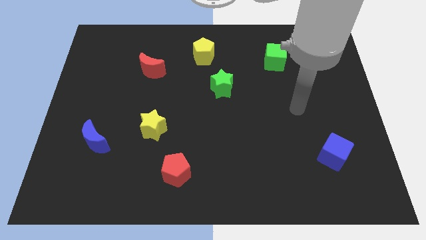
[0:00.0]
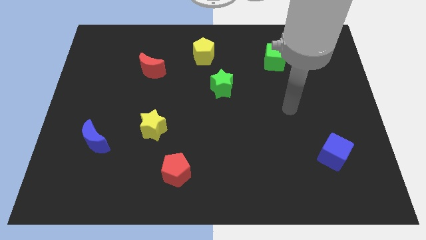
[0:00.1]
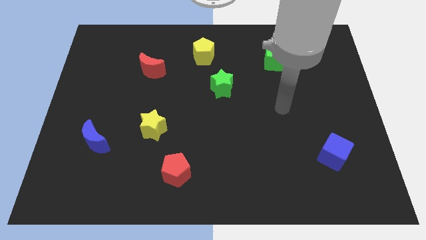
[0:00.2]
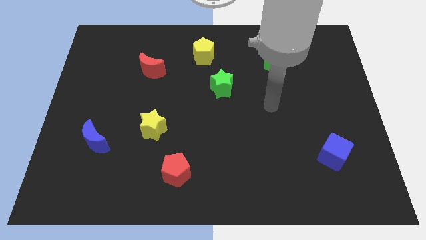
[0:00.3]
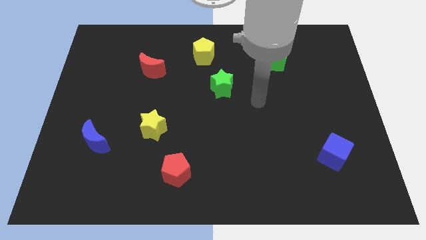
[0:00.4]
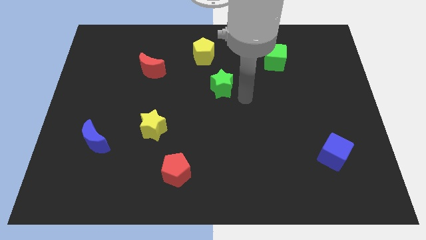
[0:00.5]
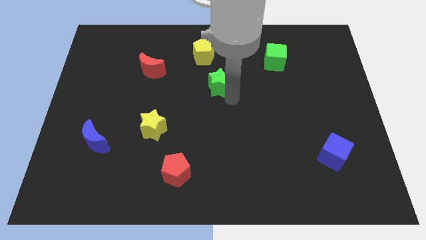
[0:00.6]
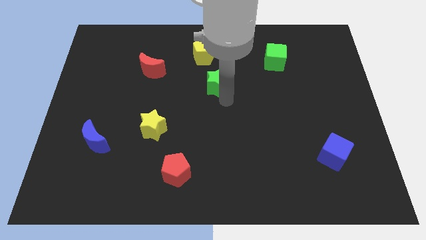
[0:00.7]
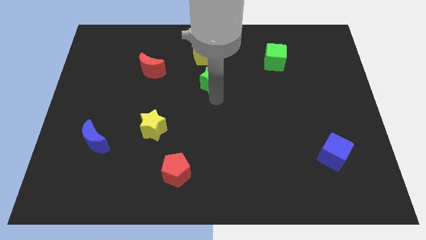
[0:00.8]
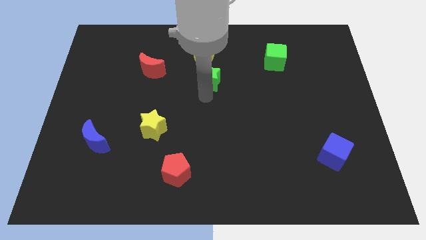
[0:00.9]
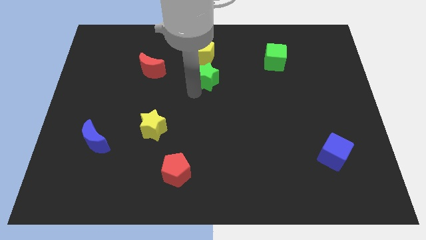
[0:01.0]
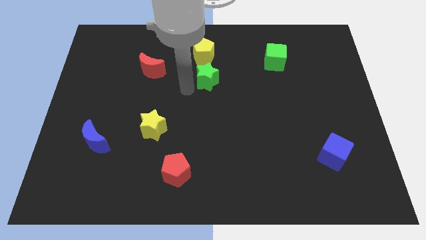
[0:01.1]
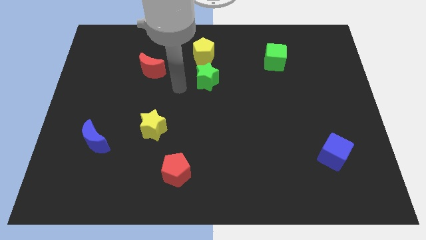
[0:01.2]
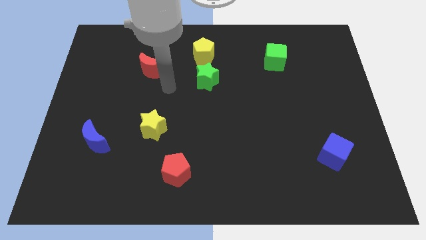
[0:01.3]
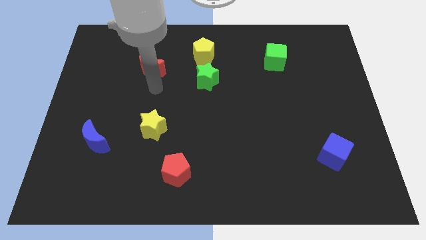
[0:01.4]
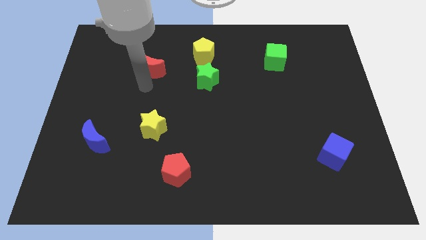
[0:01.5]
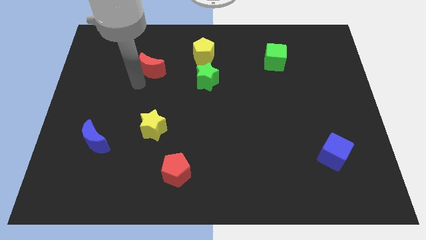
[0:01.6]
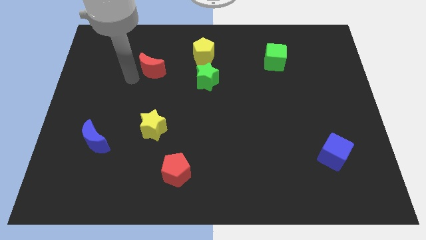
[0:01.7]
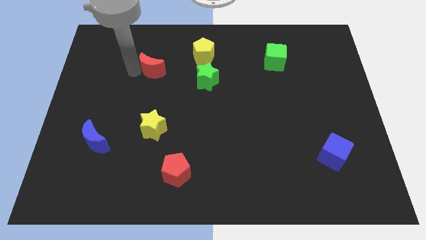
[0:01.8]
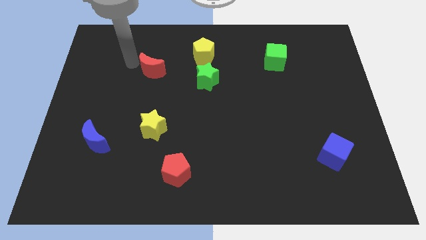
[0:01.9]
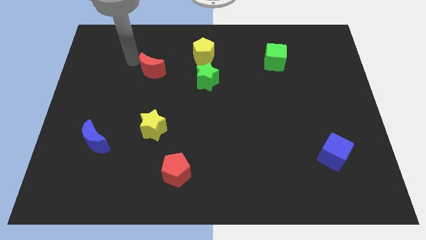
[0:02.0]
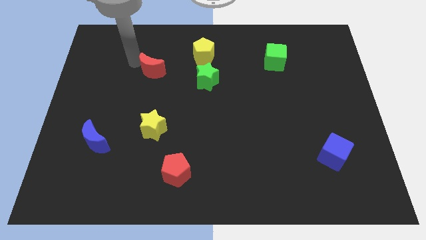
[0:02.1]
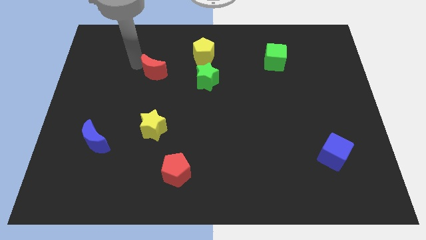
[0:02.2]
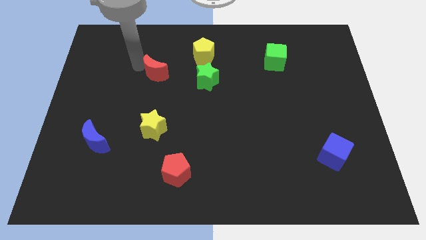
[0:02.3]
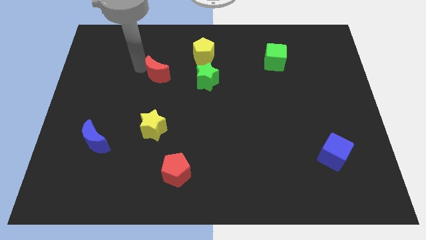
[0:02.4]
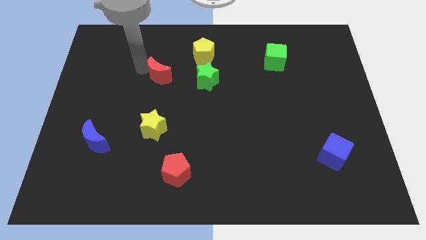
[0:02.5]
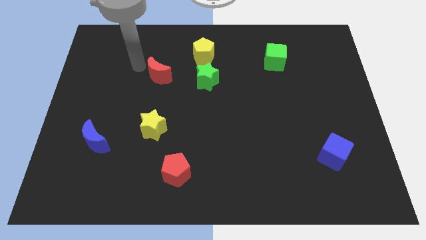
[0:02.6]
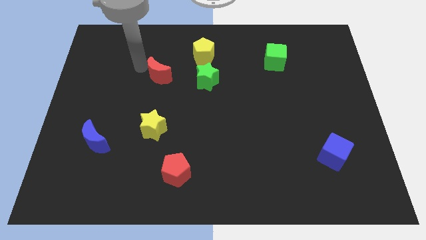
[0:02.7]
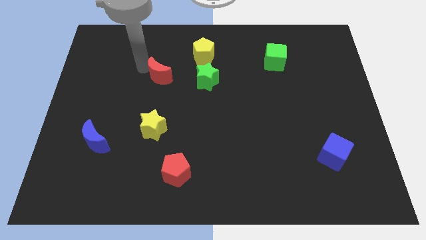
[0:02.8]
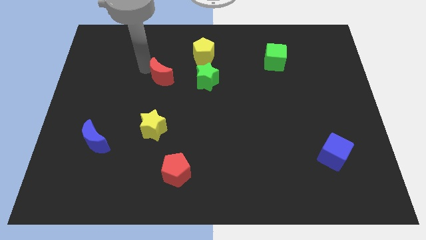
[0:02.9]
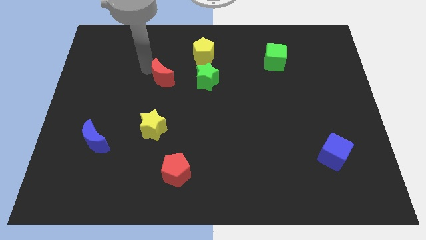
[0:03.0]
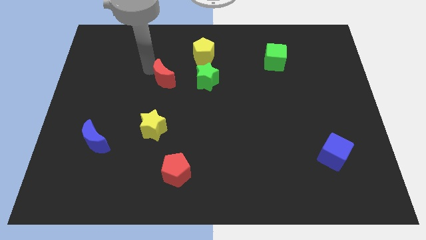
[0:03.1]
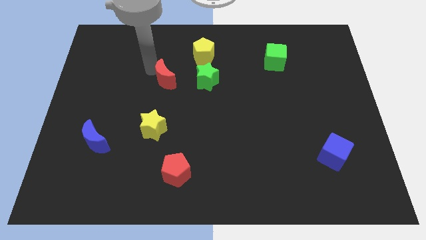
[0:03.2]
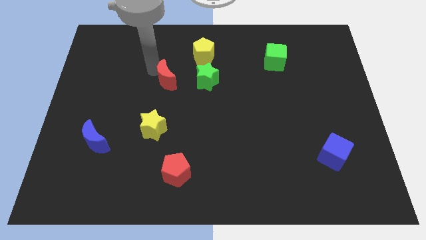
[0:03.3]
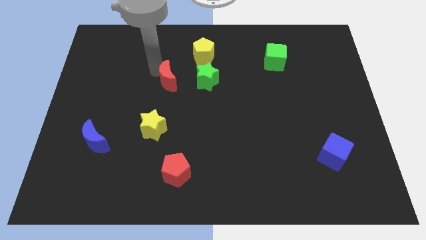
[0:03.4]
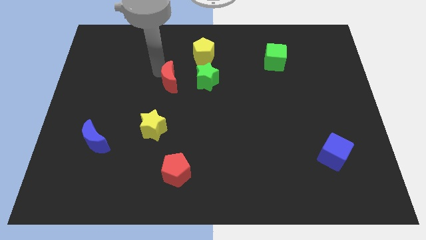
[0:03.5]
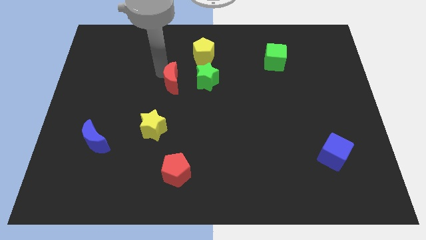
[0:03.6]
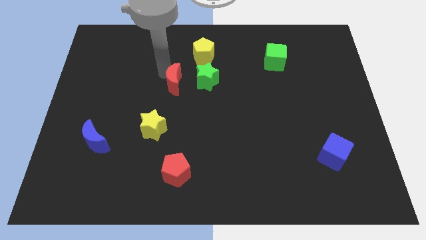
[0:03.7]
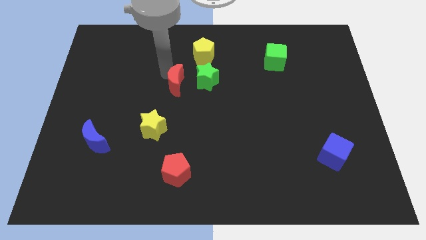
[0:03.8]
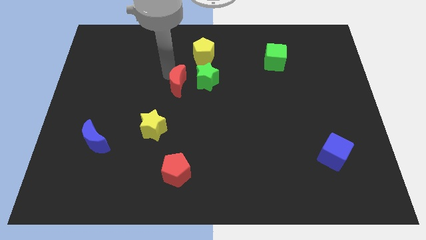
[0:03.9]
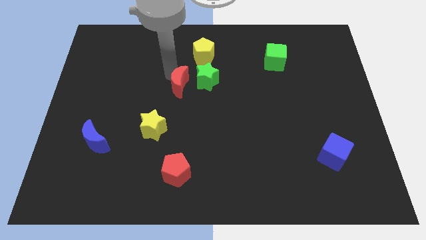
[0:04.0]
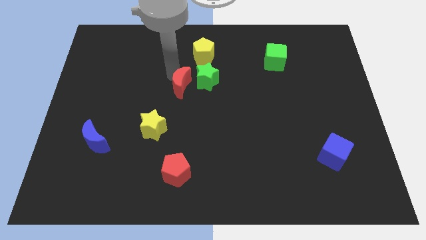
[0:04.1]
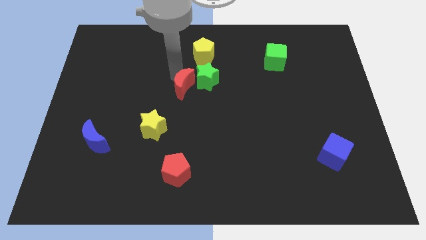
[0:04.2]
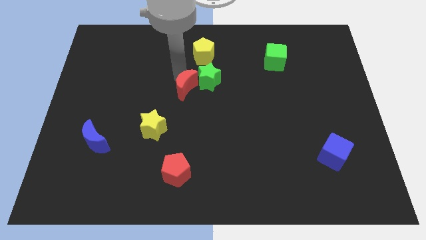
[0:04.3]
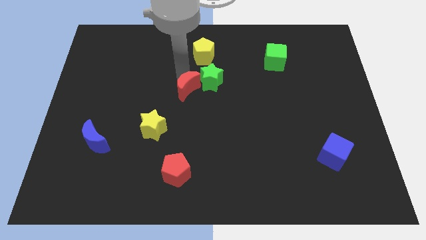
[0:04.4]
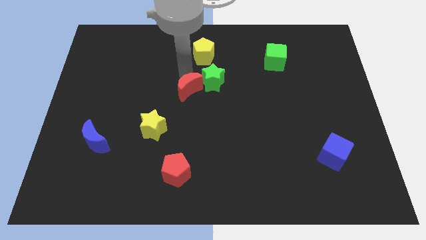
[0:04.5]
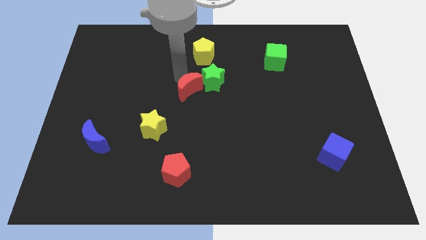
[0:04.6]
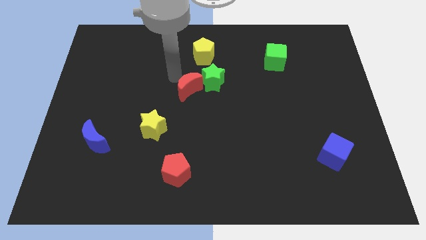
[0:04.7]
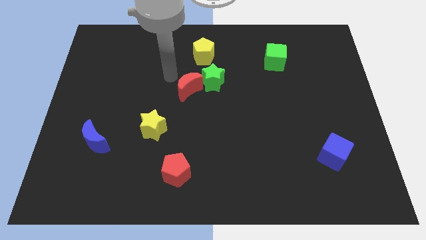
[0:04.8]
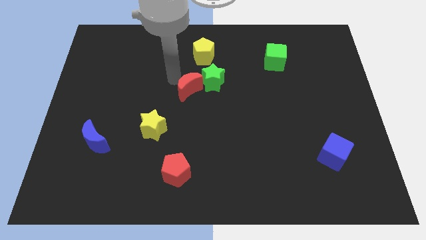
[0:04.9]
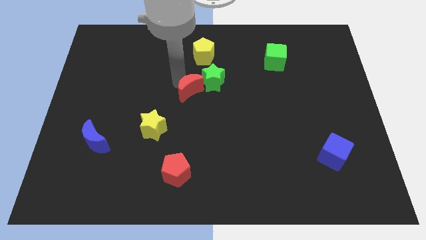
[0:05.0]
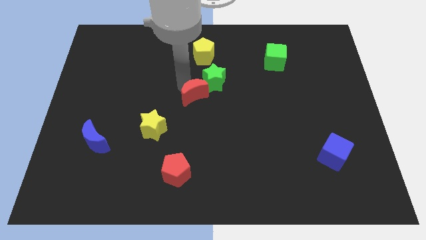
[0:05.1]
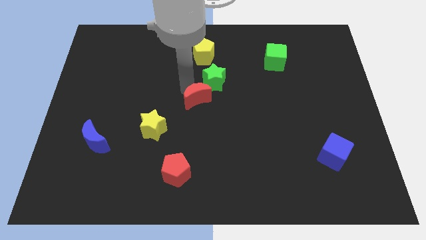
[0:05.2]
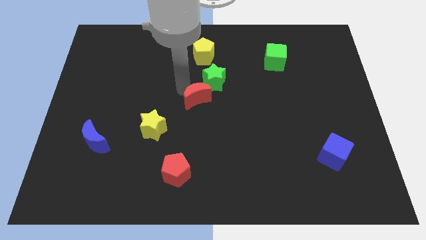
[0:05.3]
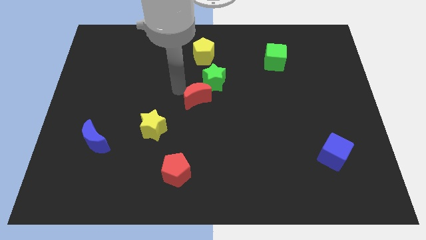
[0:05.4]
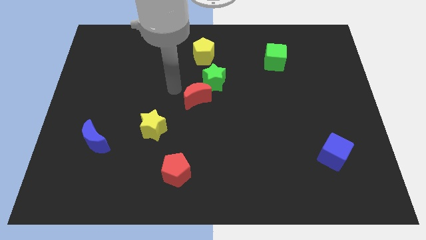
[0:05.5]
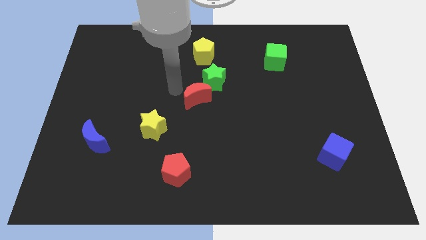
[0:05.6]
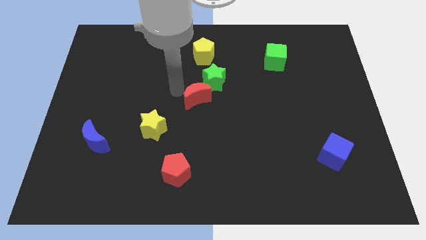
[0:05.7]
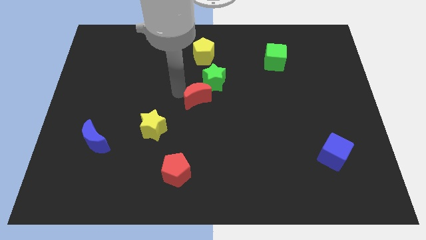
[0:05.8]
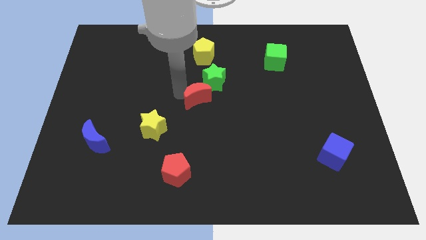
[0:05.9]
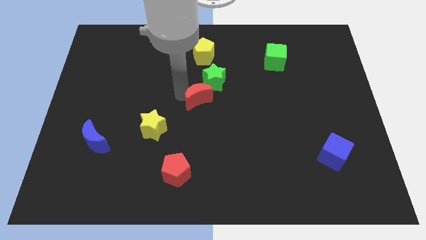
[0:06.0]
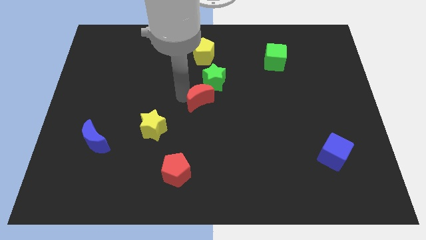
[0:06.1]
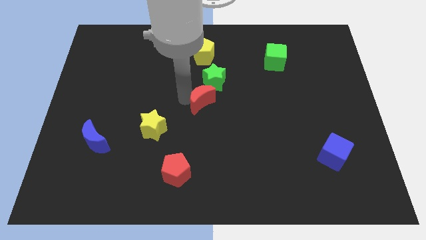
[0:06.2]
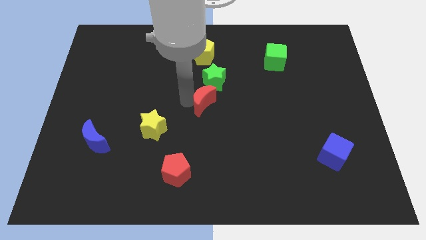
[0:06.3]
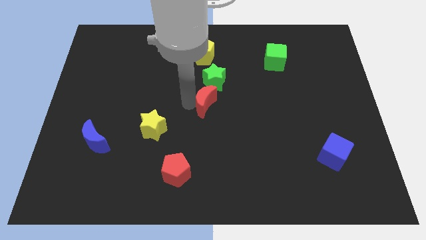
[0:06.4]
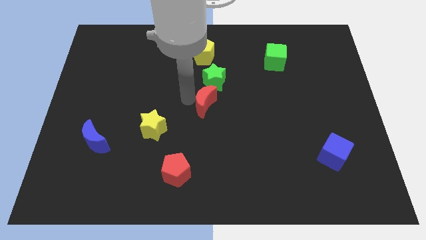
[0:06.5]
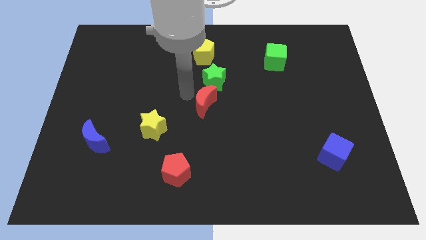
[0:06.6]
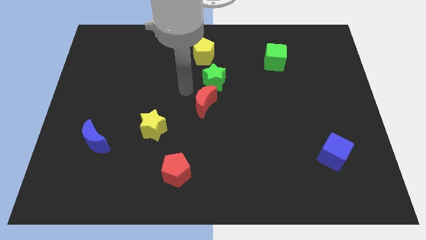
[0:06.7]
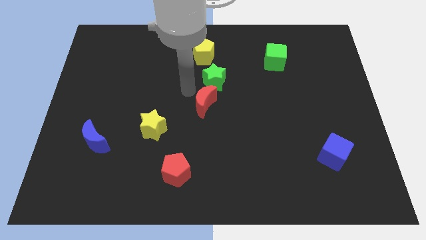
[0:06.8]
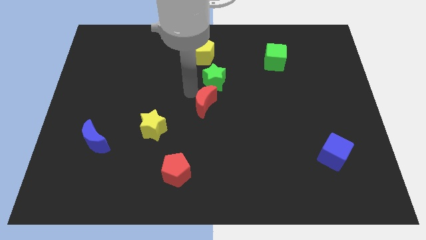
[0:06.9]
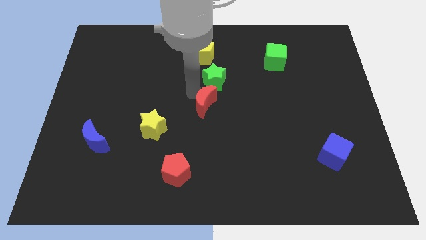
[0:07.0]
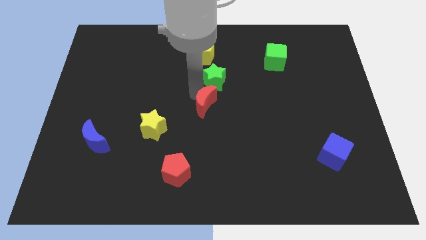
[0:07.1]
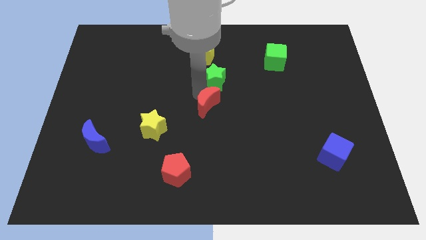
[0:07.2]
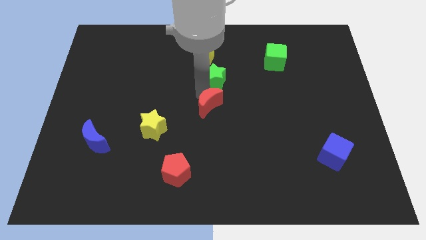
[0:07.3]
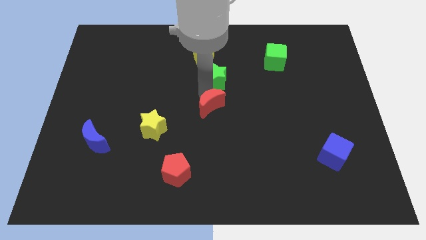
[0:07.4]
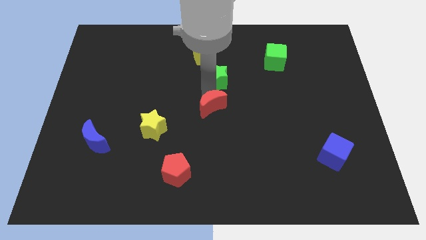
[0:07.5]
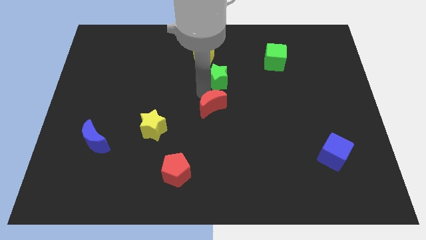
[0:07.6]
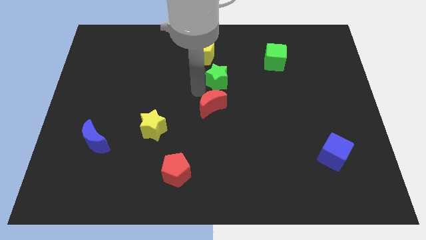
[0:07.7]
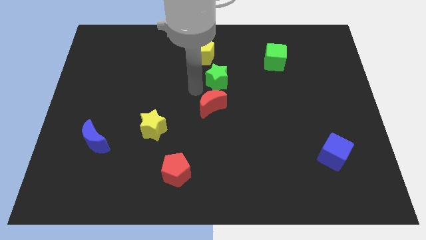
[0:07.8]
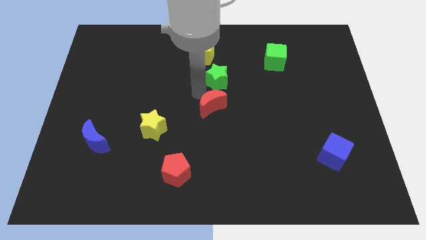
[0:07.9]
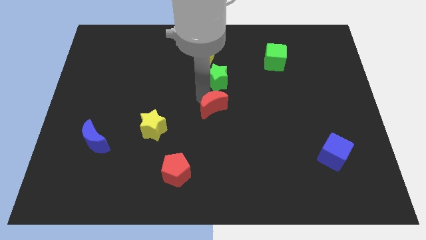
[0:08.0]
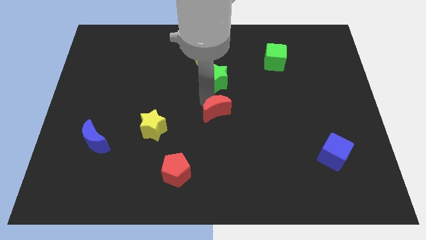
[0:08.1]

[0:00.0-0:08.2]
slide the red moon diagonally down and to the right
